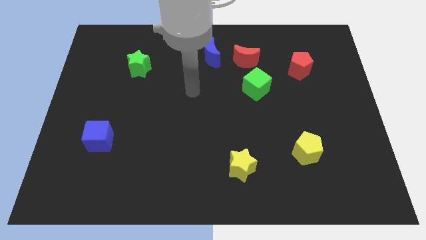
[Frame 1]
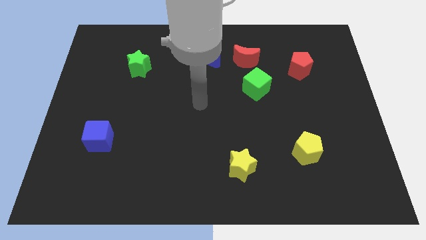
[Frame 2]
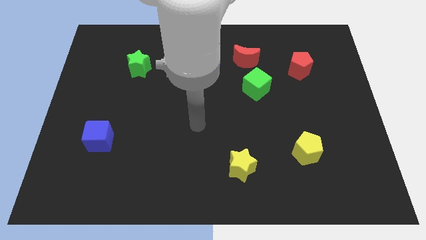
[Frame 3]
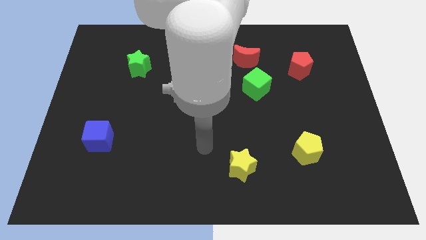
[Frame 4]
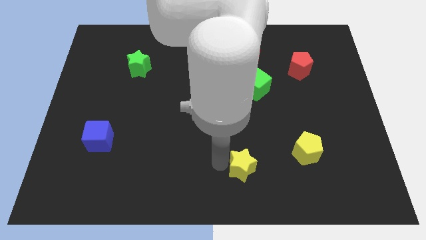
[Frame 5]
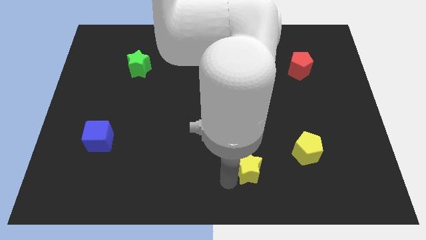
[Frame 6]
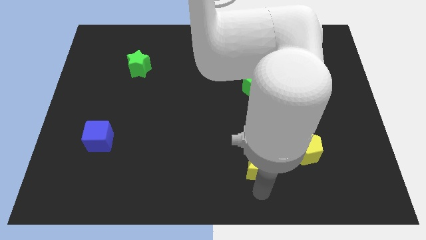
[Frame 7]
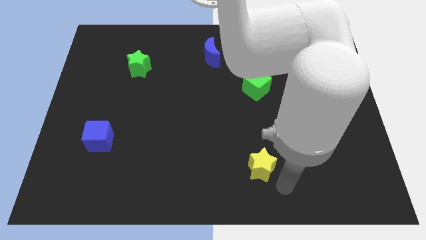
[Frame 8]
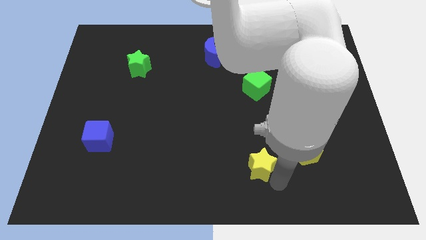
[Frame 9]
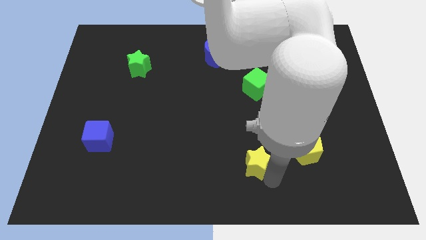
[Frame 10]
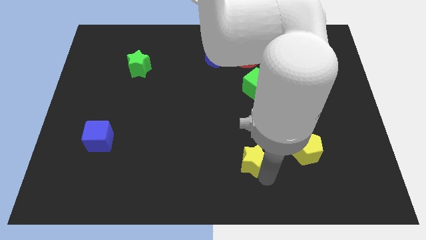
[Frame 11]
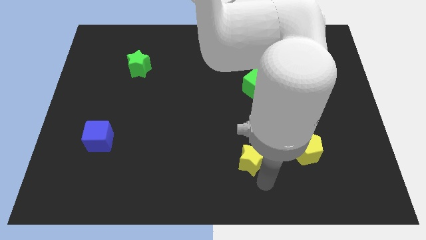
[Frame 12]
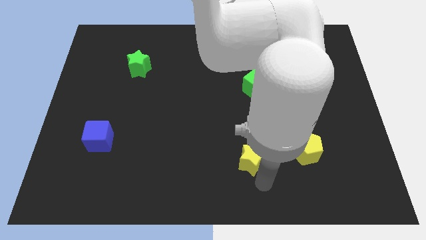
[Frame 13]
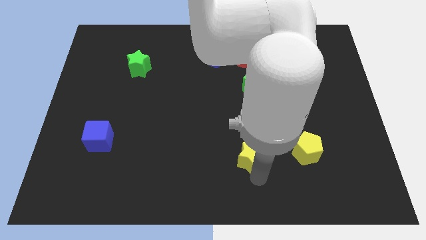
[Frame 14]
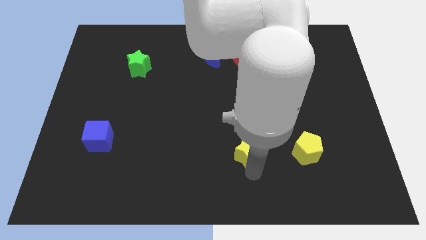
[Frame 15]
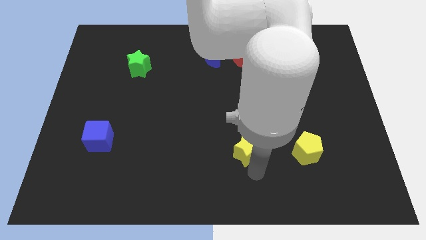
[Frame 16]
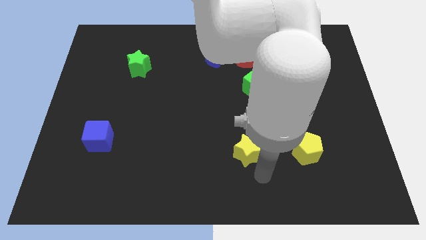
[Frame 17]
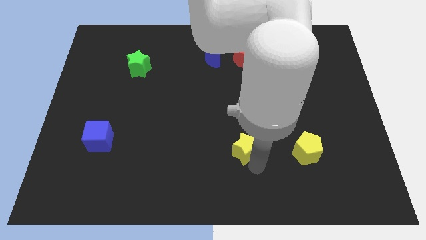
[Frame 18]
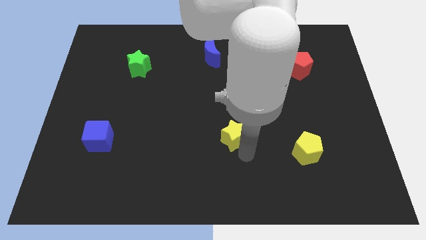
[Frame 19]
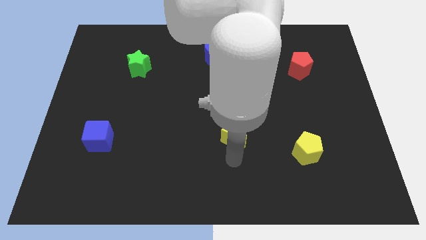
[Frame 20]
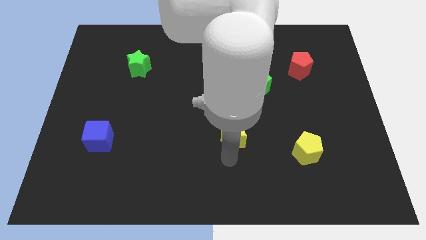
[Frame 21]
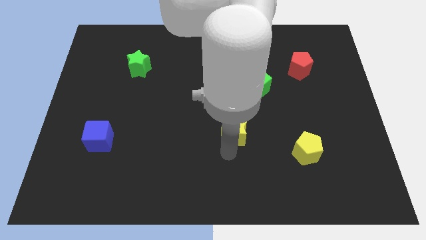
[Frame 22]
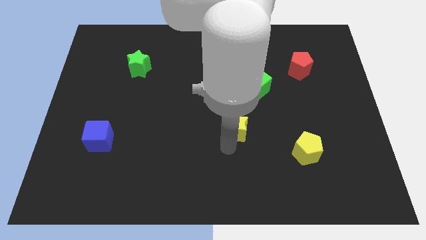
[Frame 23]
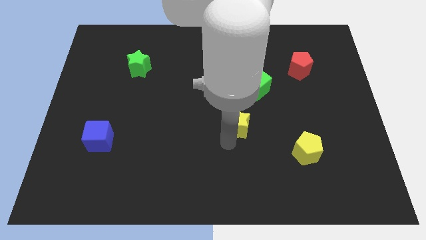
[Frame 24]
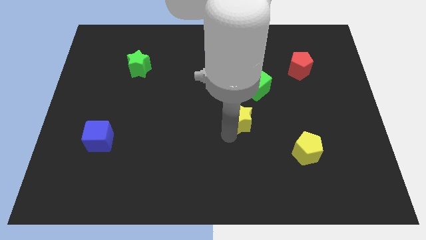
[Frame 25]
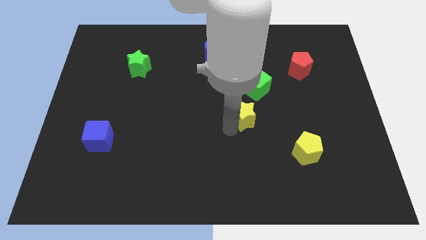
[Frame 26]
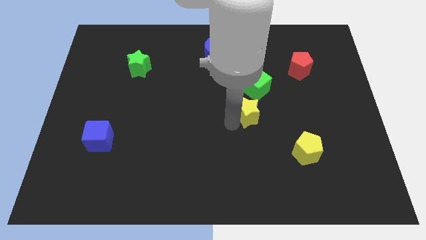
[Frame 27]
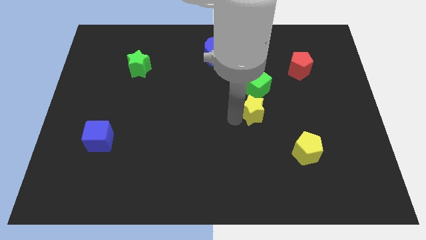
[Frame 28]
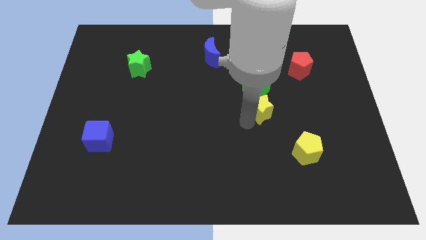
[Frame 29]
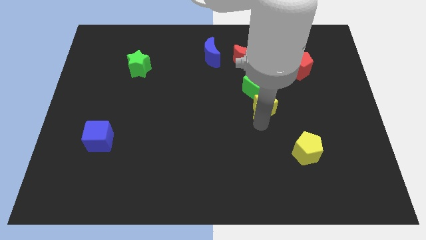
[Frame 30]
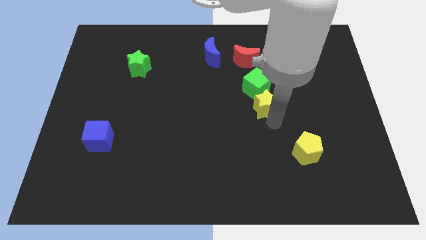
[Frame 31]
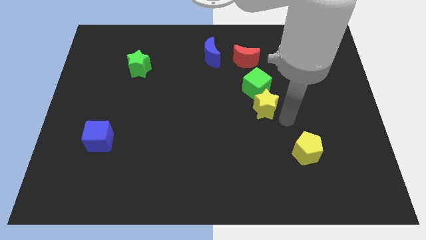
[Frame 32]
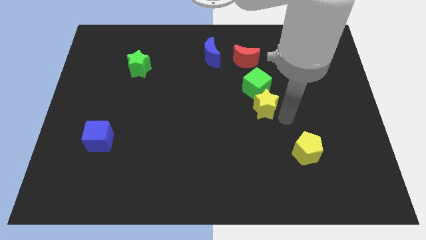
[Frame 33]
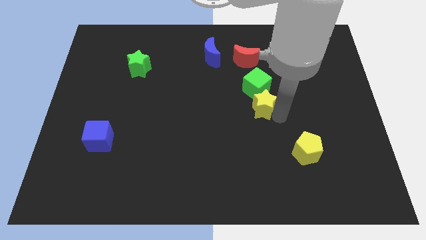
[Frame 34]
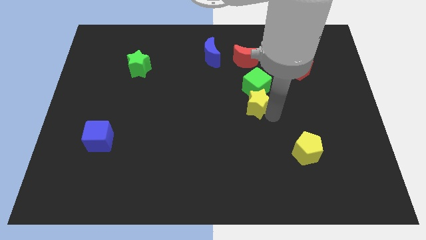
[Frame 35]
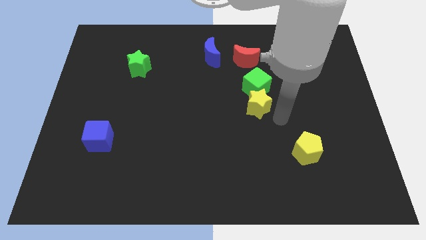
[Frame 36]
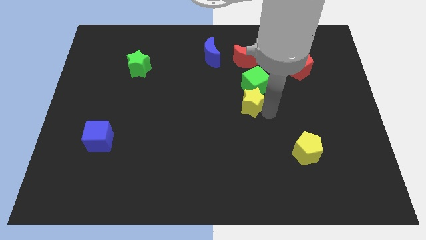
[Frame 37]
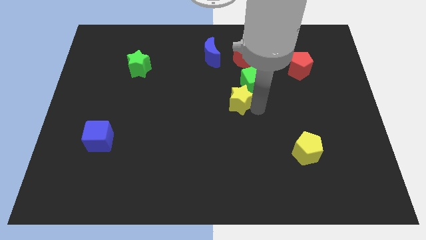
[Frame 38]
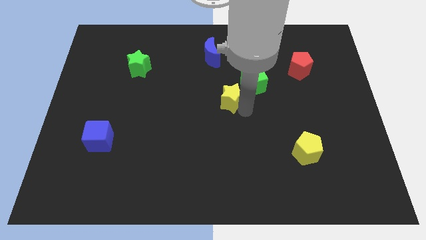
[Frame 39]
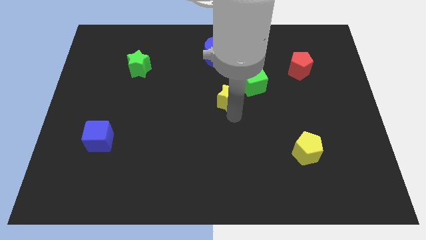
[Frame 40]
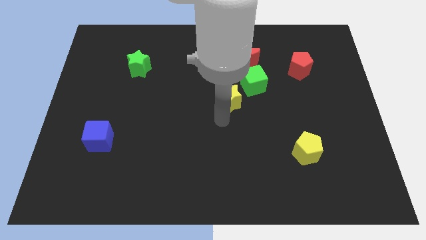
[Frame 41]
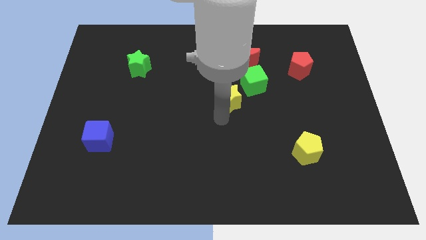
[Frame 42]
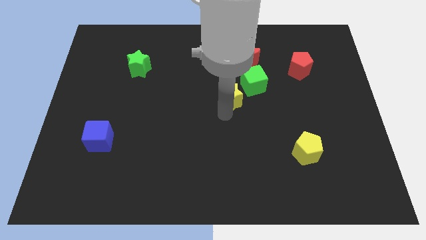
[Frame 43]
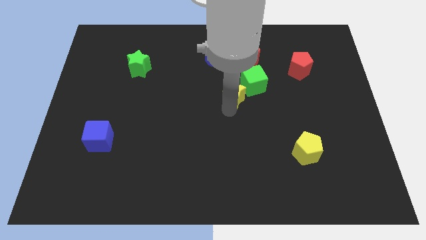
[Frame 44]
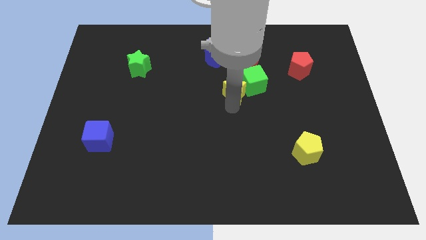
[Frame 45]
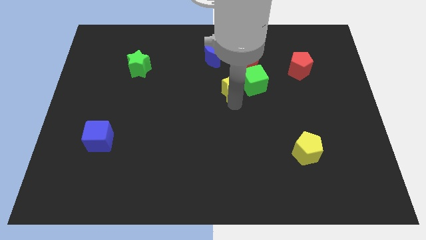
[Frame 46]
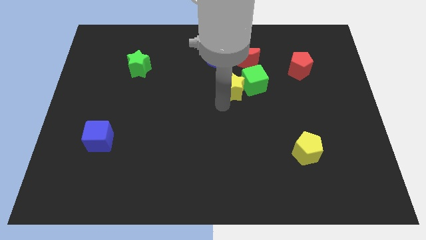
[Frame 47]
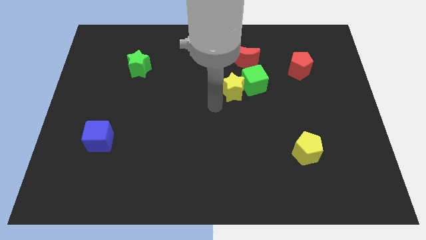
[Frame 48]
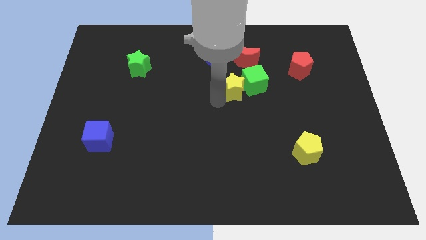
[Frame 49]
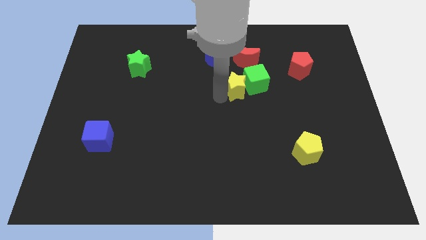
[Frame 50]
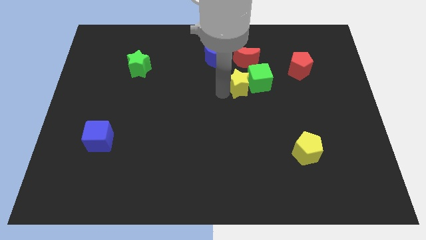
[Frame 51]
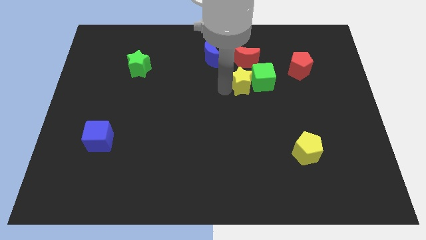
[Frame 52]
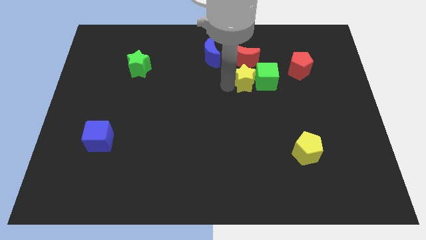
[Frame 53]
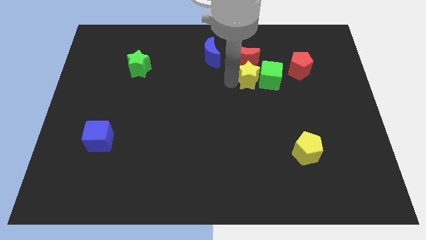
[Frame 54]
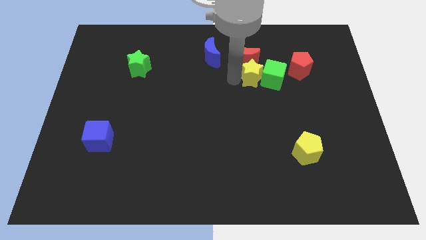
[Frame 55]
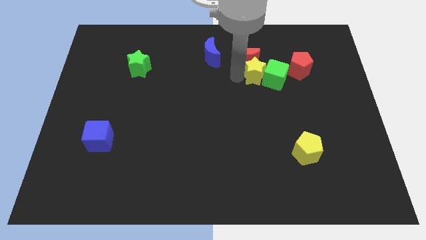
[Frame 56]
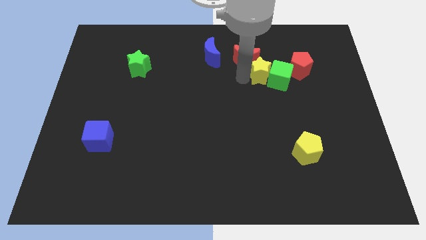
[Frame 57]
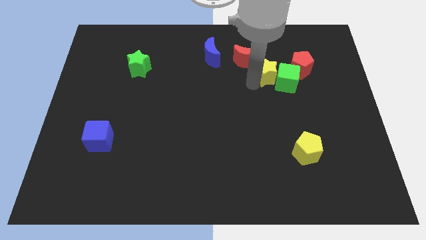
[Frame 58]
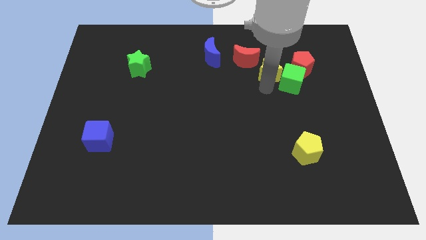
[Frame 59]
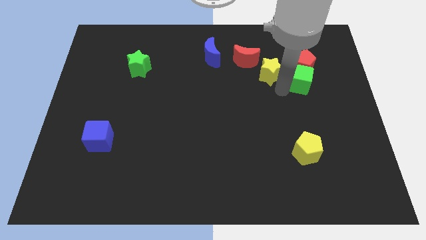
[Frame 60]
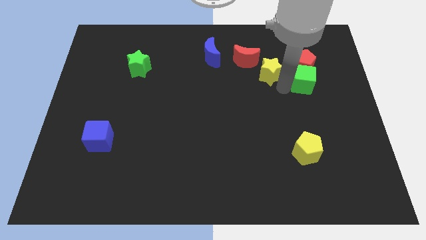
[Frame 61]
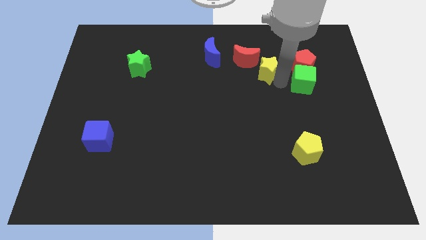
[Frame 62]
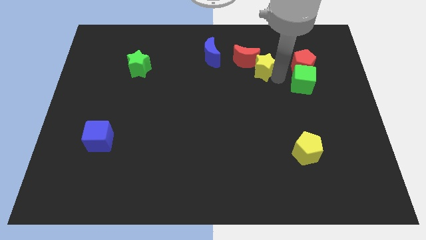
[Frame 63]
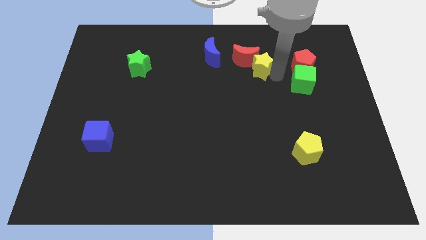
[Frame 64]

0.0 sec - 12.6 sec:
move the yellow star to the right of the blue moon

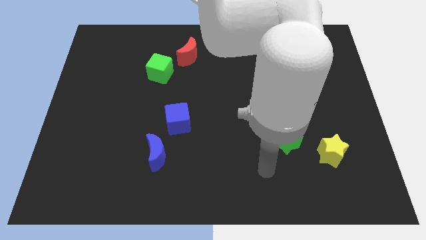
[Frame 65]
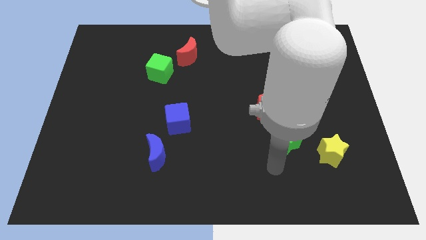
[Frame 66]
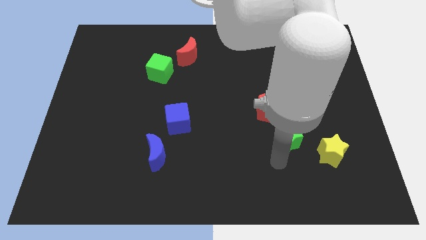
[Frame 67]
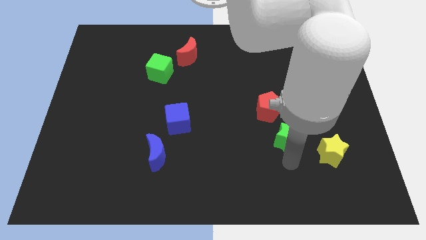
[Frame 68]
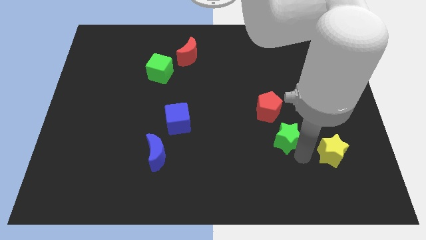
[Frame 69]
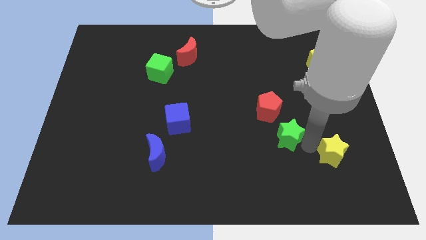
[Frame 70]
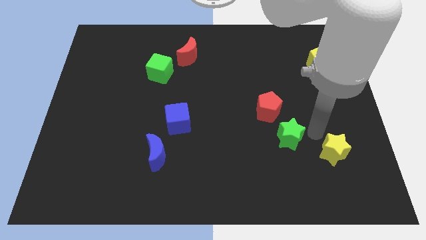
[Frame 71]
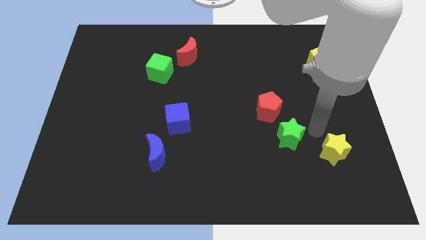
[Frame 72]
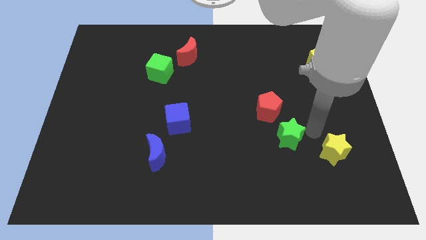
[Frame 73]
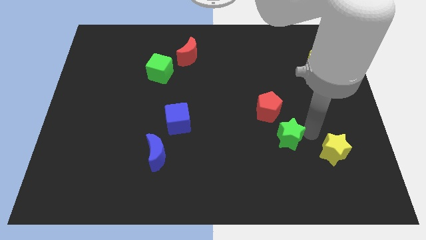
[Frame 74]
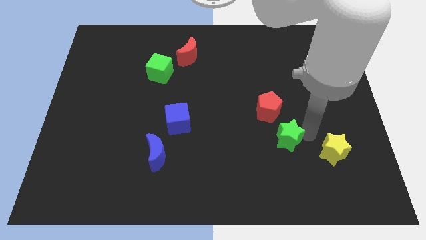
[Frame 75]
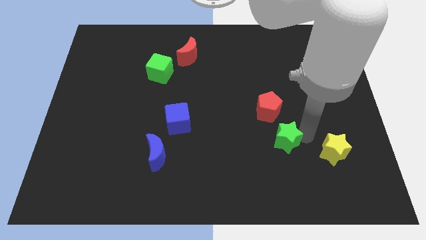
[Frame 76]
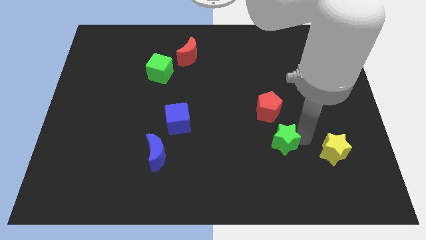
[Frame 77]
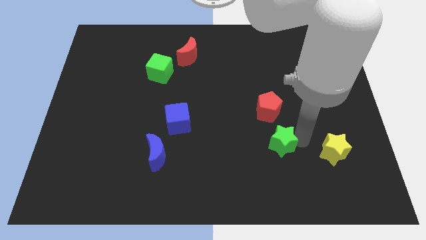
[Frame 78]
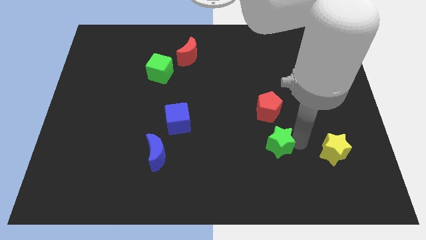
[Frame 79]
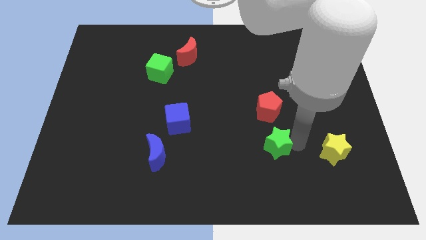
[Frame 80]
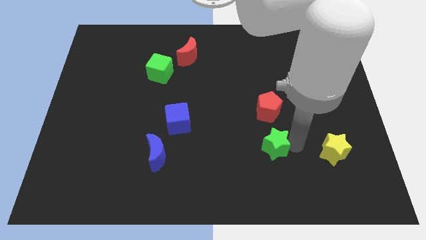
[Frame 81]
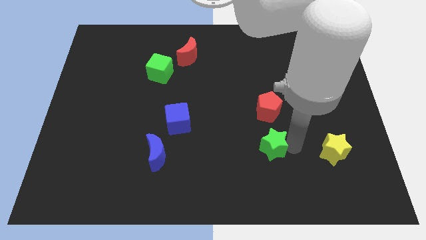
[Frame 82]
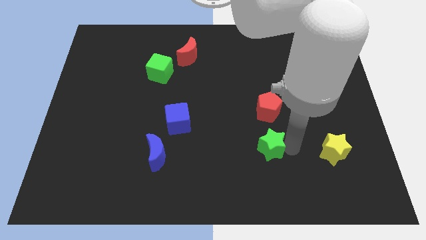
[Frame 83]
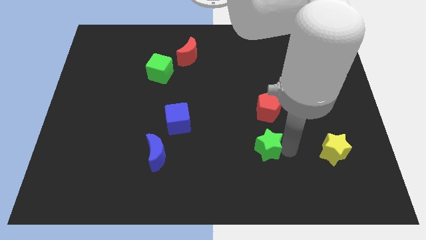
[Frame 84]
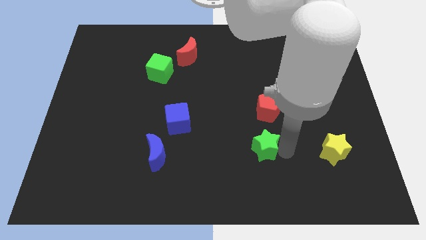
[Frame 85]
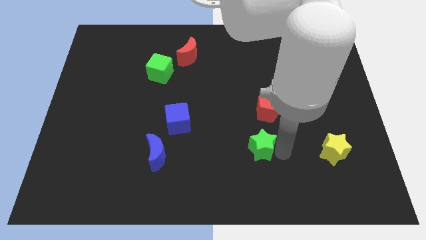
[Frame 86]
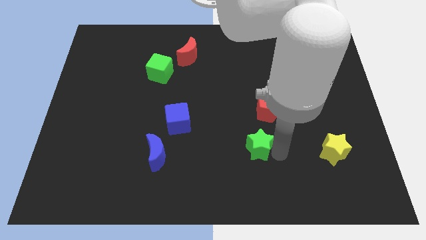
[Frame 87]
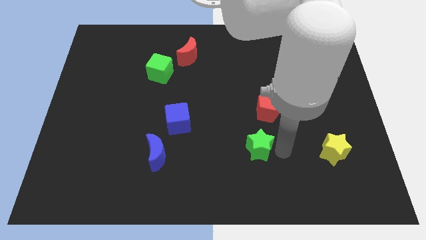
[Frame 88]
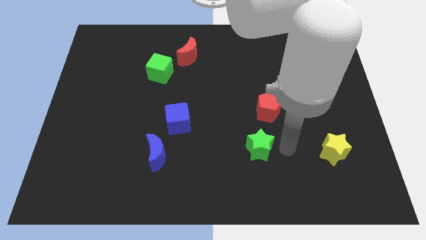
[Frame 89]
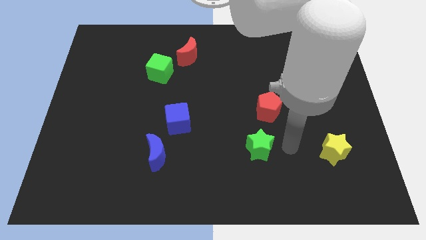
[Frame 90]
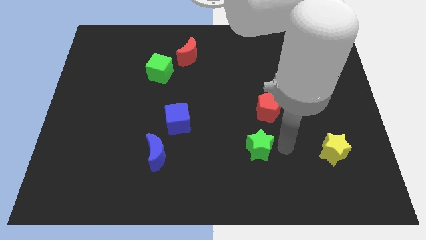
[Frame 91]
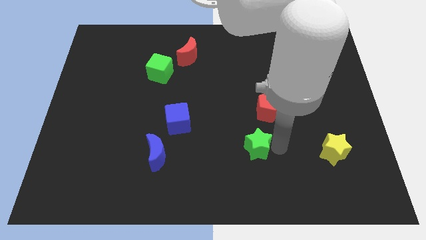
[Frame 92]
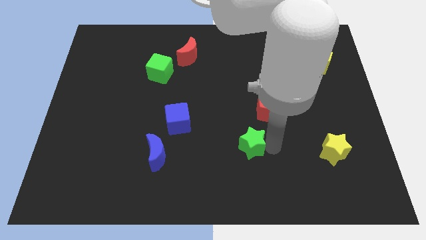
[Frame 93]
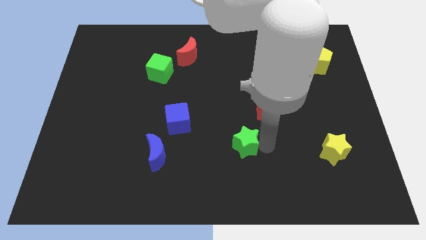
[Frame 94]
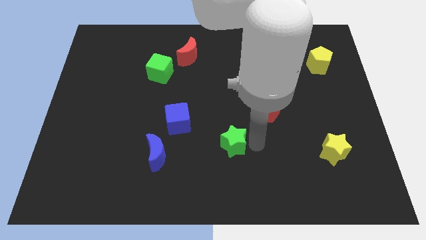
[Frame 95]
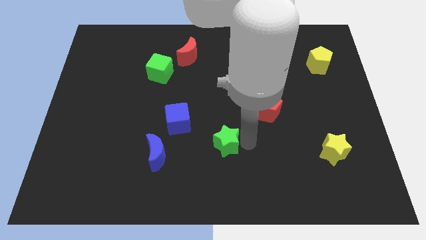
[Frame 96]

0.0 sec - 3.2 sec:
slide the green star to the right of the blue moon
